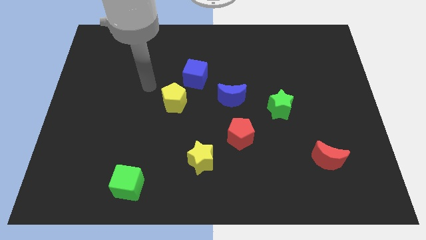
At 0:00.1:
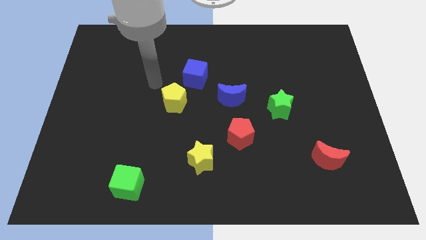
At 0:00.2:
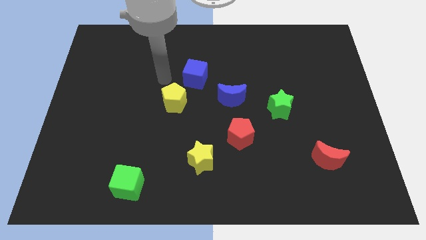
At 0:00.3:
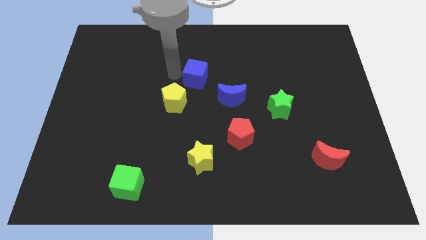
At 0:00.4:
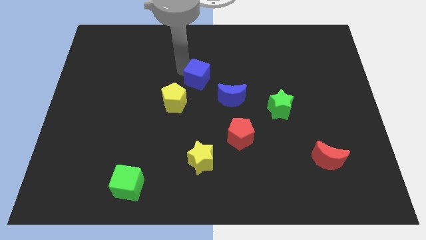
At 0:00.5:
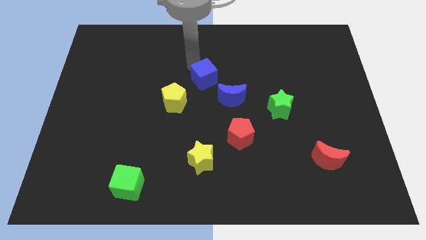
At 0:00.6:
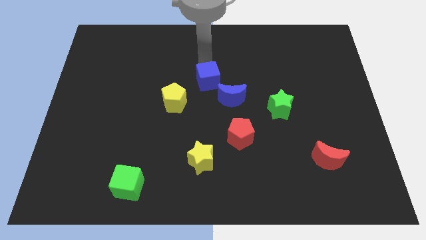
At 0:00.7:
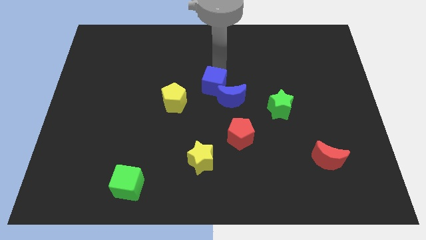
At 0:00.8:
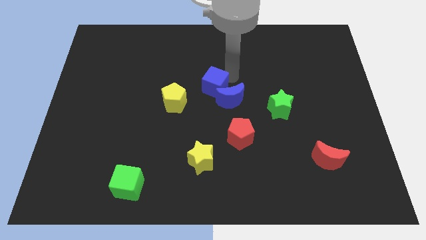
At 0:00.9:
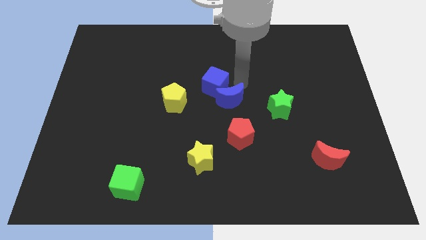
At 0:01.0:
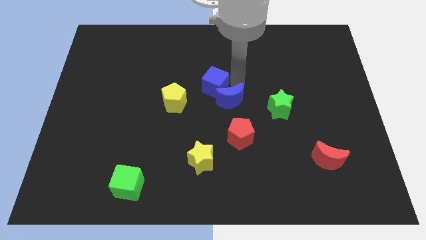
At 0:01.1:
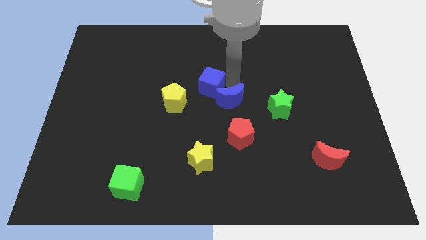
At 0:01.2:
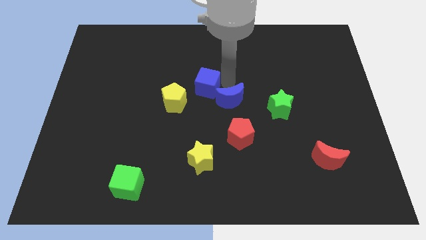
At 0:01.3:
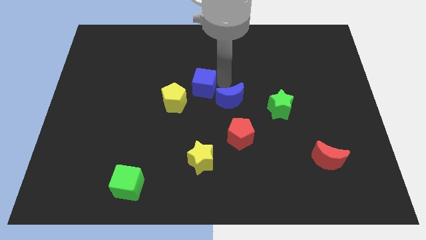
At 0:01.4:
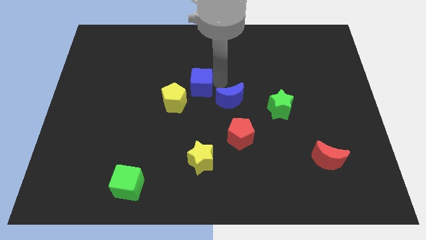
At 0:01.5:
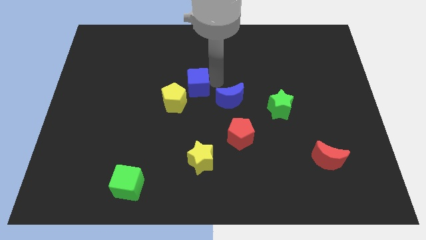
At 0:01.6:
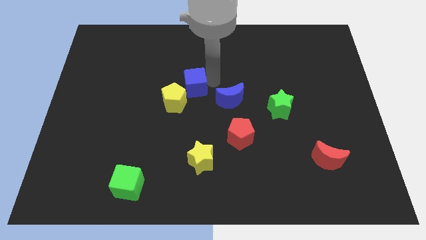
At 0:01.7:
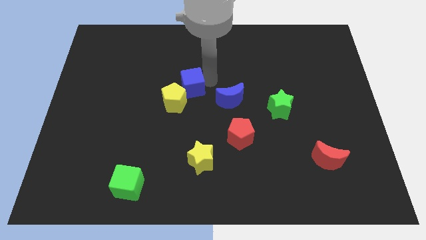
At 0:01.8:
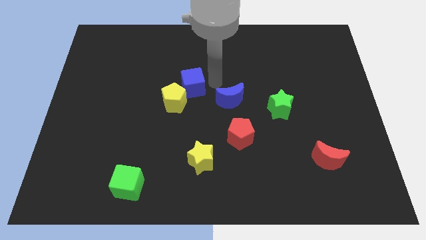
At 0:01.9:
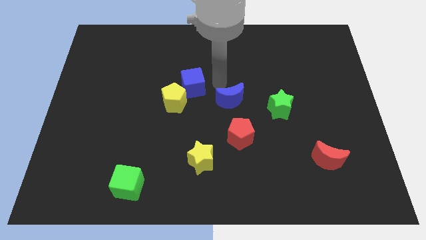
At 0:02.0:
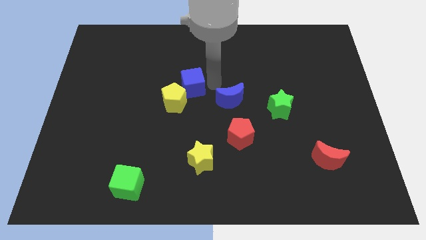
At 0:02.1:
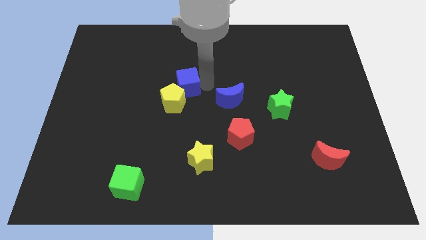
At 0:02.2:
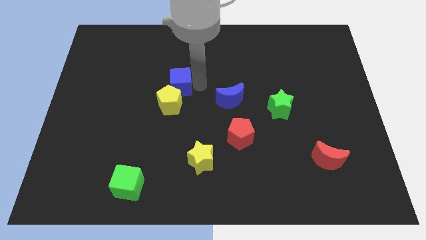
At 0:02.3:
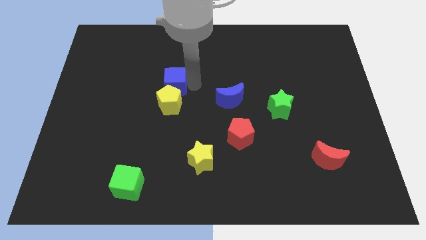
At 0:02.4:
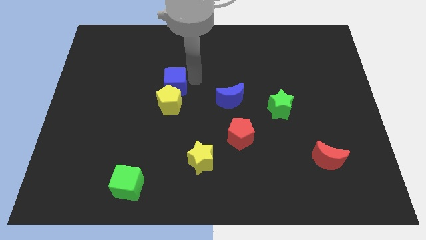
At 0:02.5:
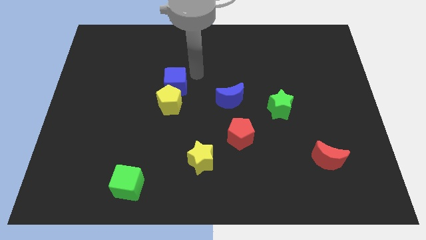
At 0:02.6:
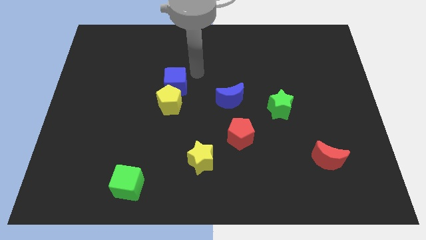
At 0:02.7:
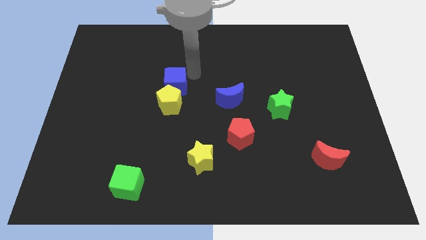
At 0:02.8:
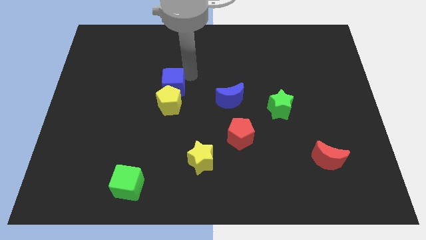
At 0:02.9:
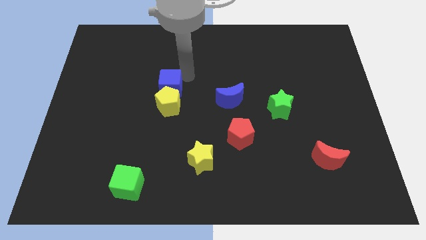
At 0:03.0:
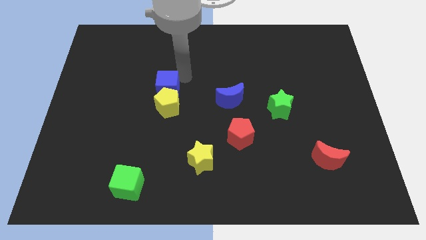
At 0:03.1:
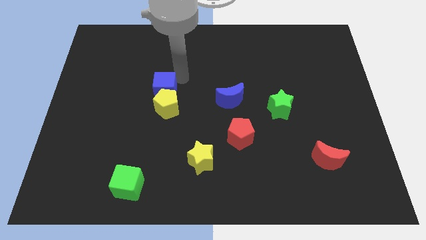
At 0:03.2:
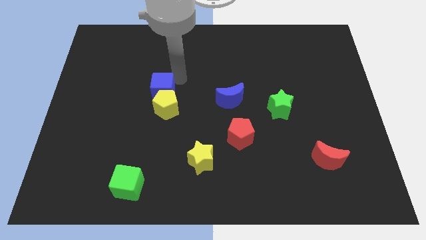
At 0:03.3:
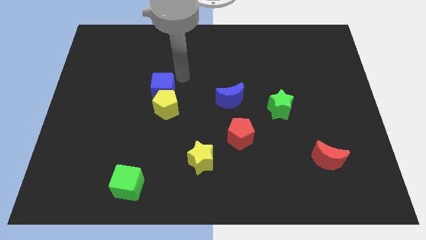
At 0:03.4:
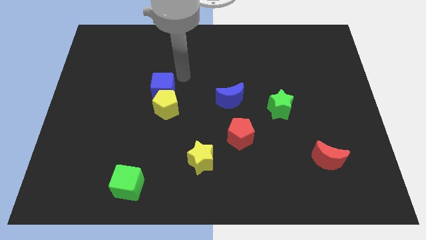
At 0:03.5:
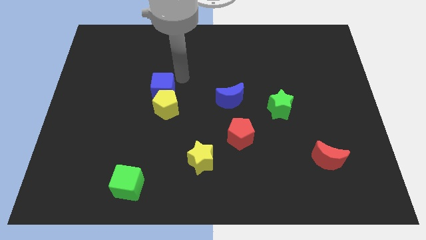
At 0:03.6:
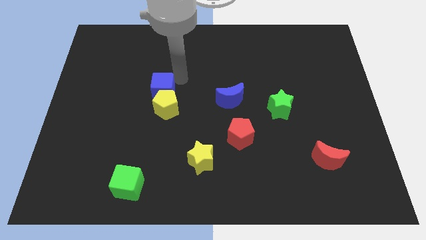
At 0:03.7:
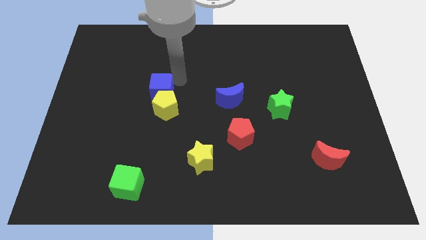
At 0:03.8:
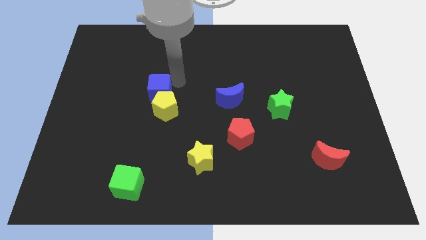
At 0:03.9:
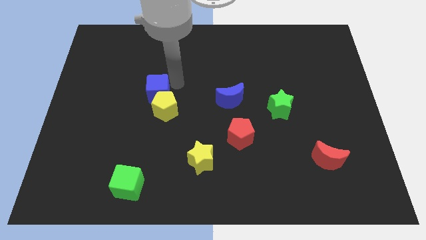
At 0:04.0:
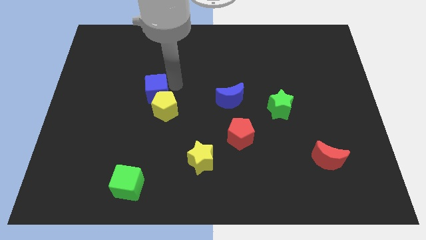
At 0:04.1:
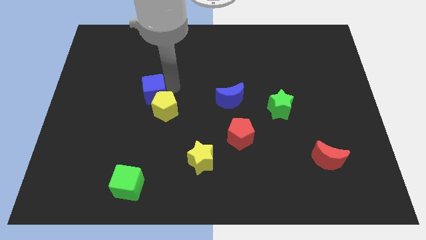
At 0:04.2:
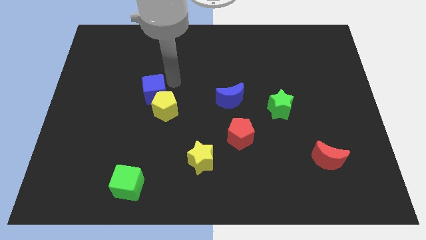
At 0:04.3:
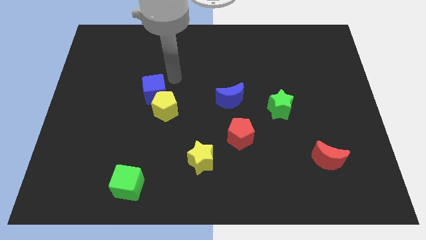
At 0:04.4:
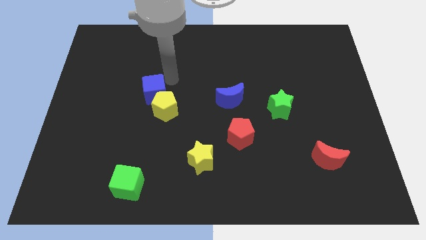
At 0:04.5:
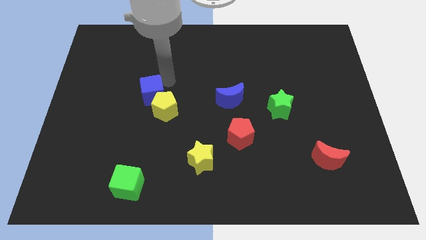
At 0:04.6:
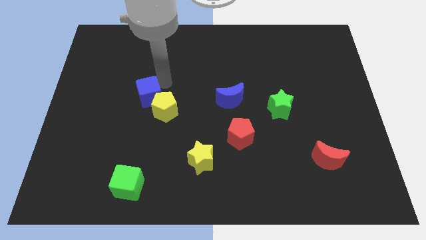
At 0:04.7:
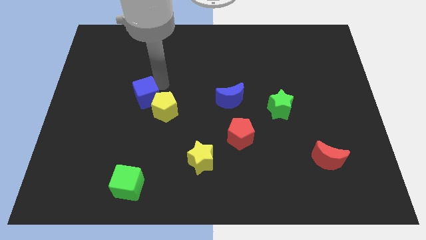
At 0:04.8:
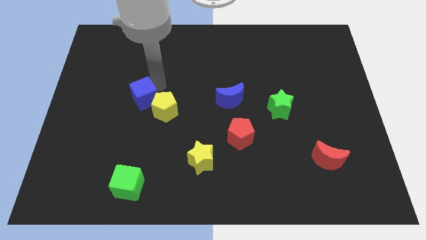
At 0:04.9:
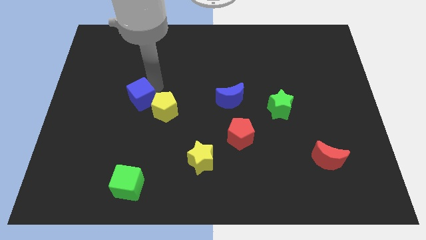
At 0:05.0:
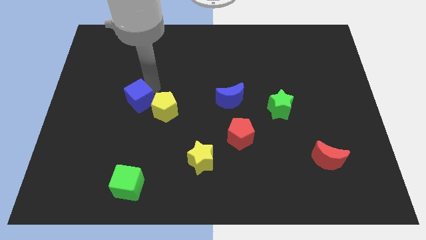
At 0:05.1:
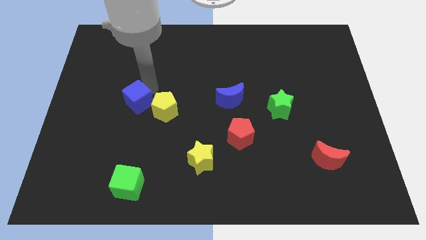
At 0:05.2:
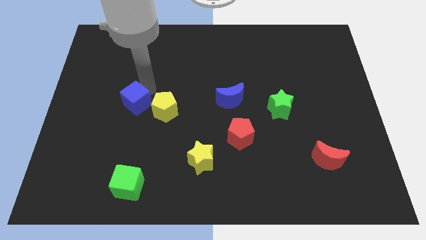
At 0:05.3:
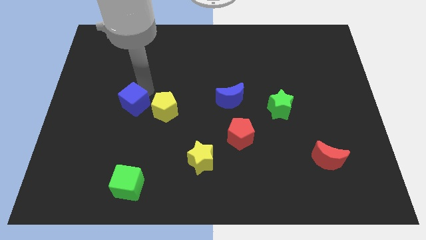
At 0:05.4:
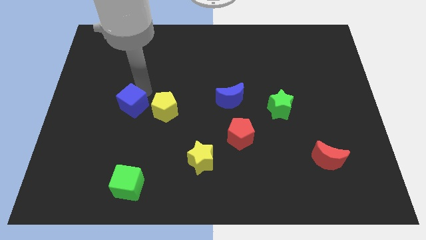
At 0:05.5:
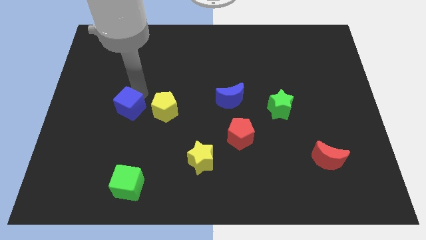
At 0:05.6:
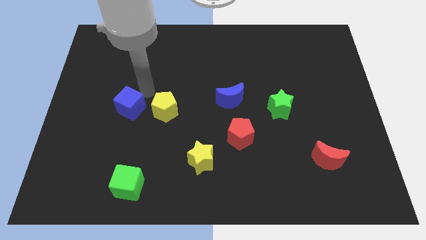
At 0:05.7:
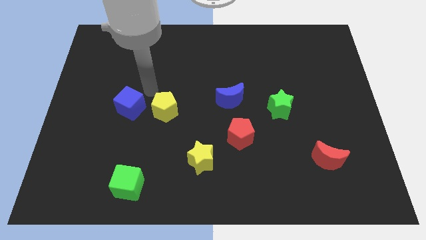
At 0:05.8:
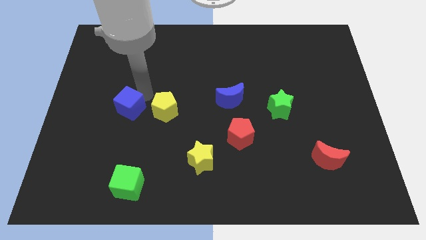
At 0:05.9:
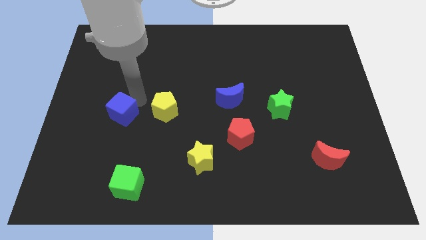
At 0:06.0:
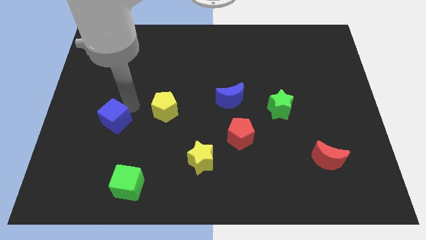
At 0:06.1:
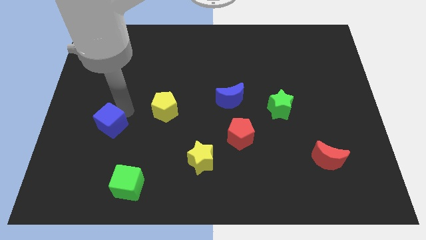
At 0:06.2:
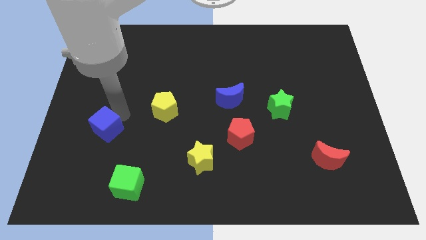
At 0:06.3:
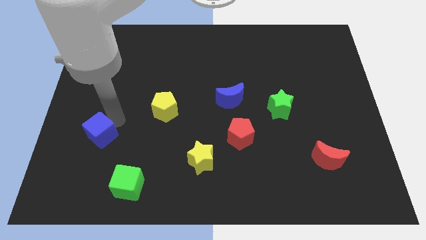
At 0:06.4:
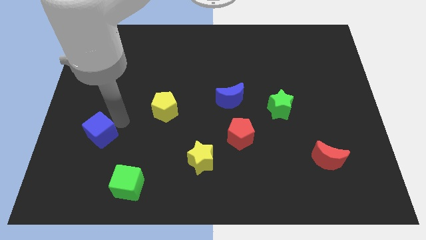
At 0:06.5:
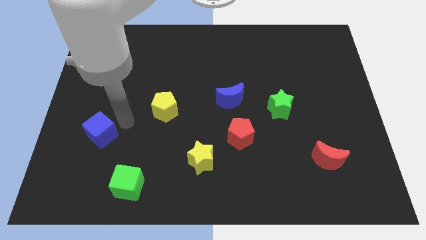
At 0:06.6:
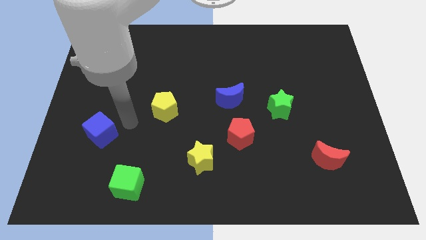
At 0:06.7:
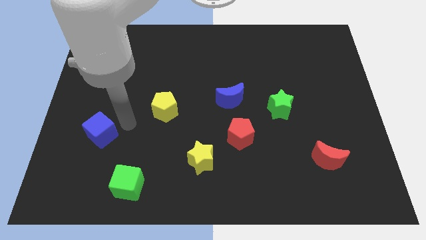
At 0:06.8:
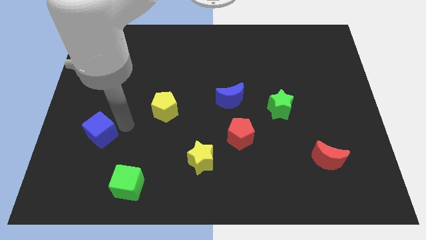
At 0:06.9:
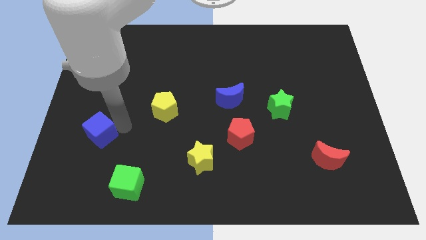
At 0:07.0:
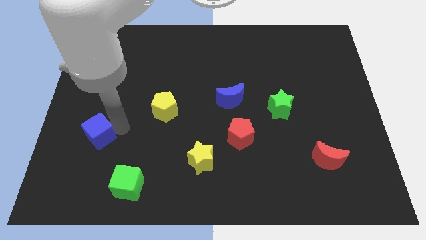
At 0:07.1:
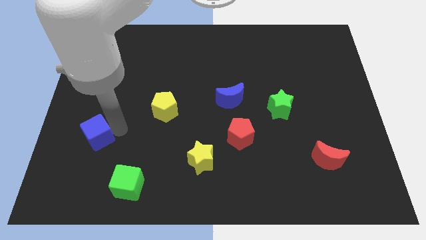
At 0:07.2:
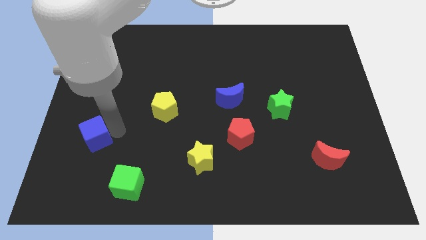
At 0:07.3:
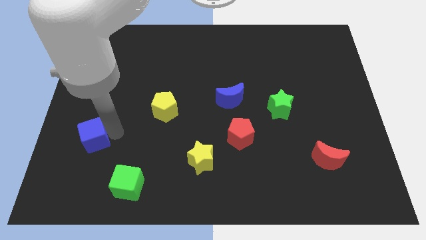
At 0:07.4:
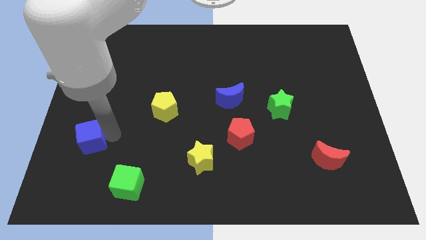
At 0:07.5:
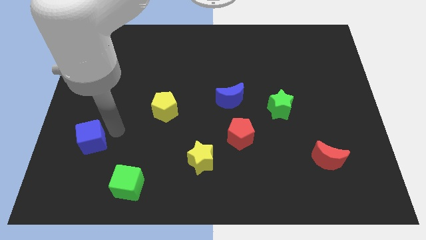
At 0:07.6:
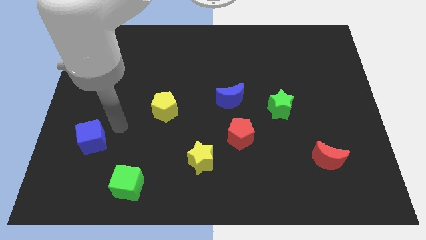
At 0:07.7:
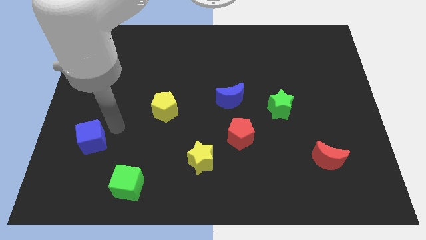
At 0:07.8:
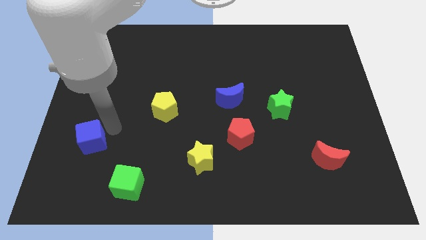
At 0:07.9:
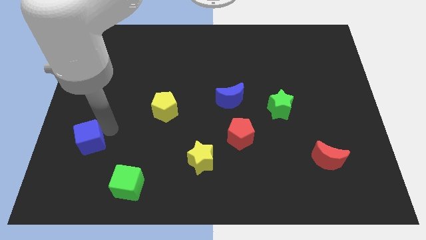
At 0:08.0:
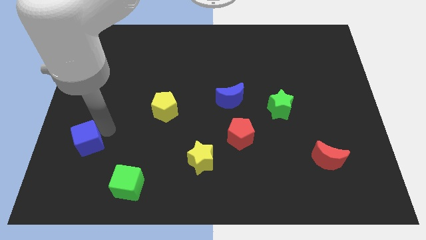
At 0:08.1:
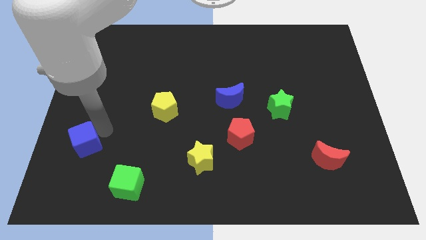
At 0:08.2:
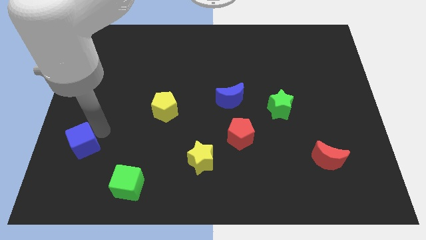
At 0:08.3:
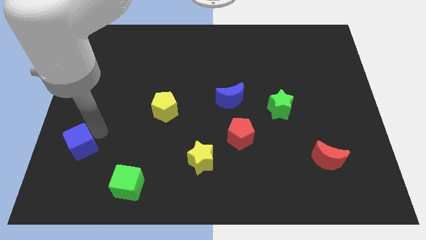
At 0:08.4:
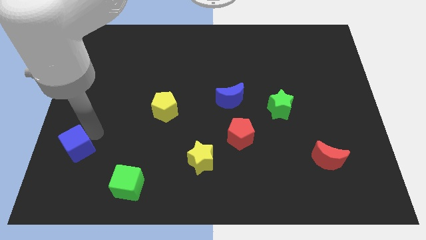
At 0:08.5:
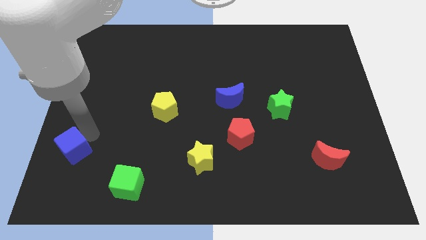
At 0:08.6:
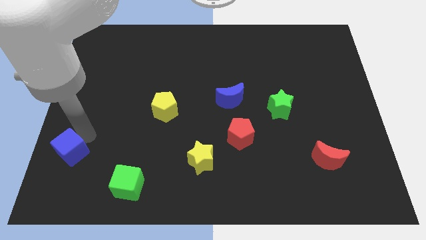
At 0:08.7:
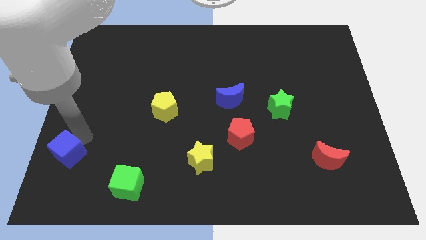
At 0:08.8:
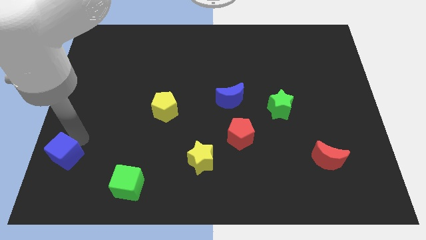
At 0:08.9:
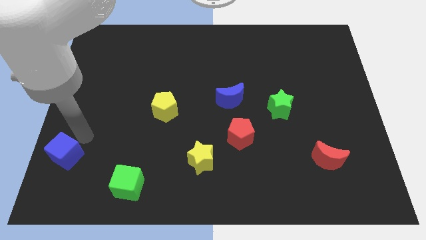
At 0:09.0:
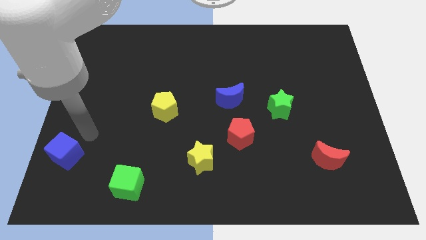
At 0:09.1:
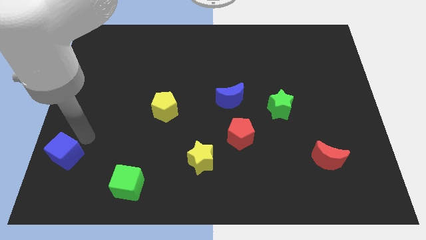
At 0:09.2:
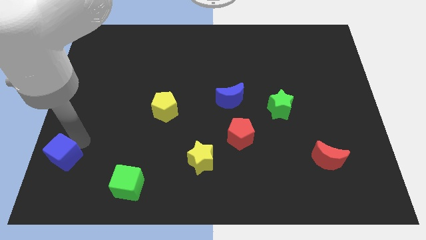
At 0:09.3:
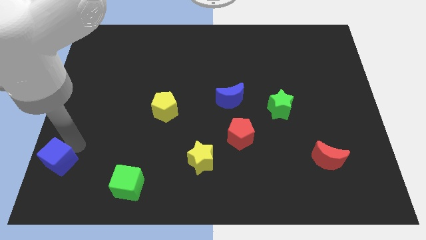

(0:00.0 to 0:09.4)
slide the blue cube to the bottom left corner
